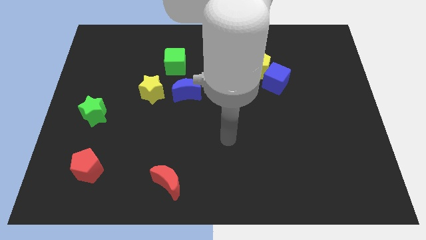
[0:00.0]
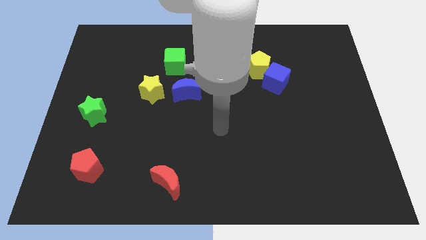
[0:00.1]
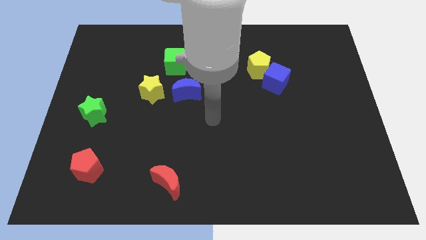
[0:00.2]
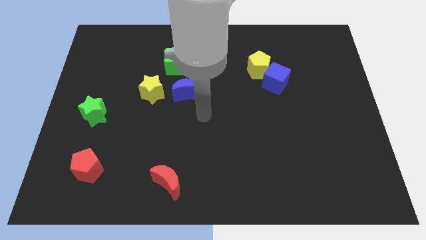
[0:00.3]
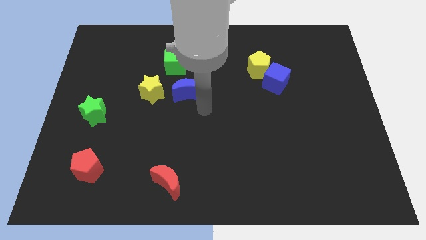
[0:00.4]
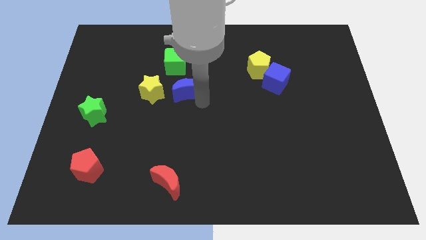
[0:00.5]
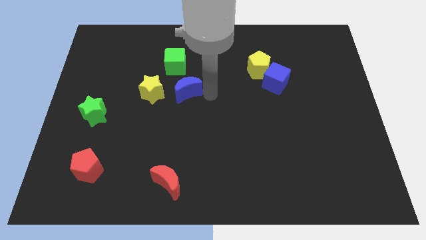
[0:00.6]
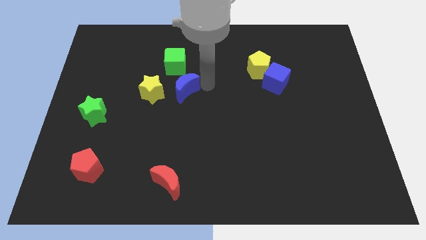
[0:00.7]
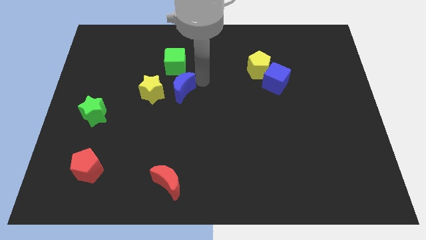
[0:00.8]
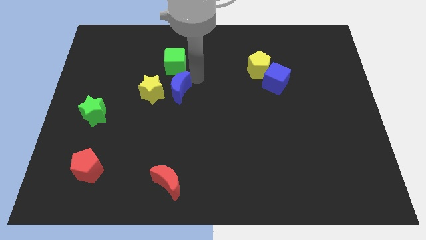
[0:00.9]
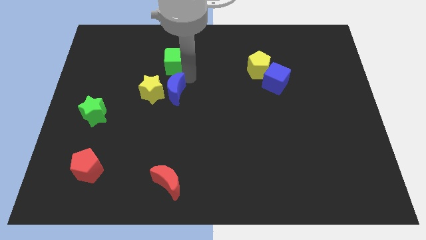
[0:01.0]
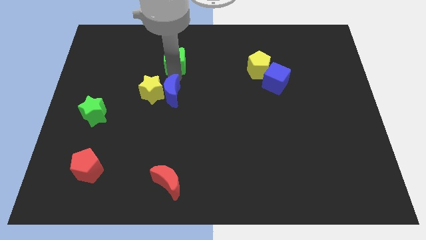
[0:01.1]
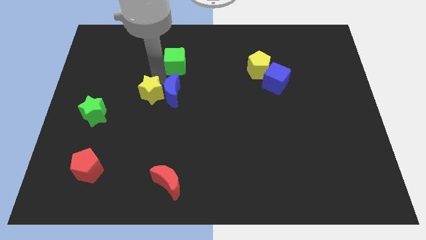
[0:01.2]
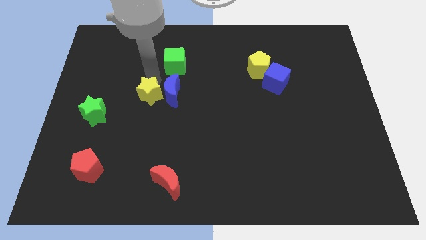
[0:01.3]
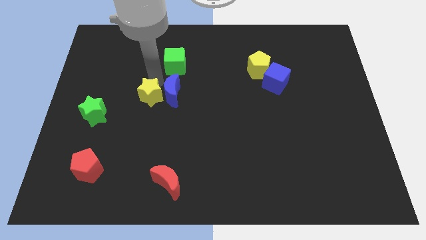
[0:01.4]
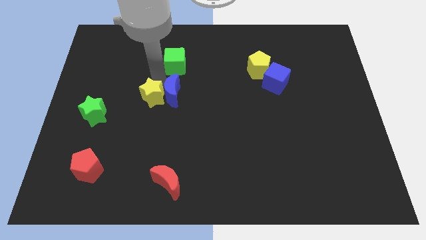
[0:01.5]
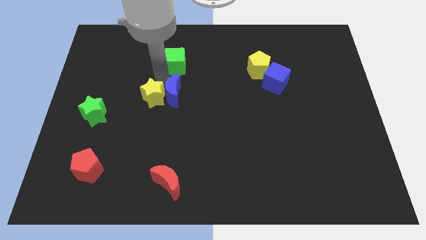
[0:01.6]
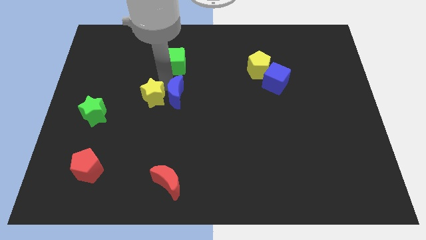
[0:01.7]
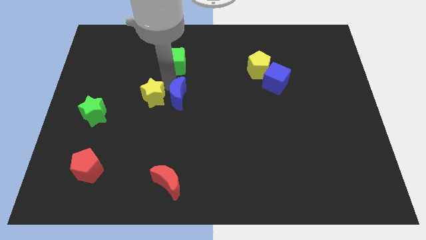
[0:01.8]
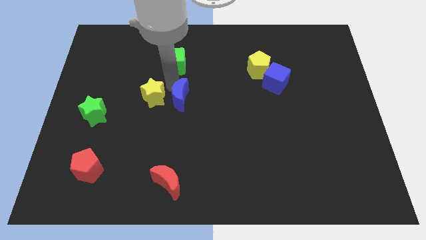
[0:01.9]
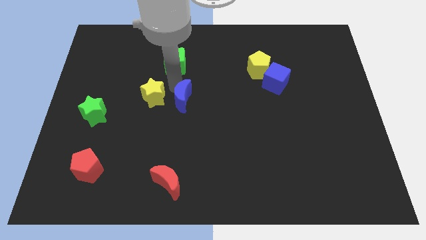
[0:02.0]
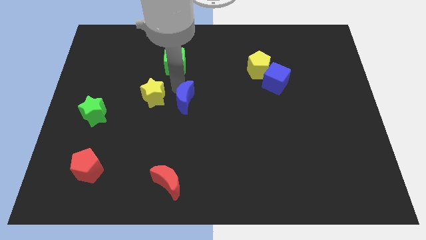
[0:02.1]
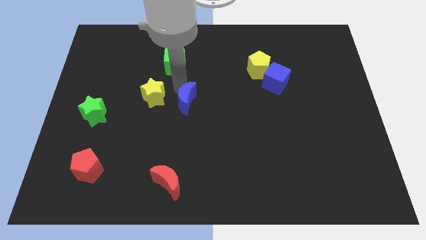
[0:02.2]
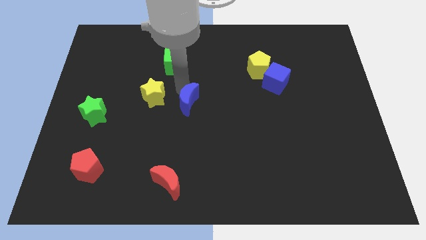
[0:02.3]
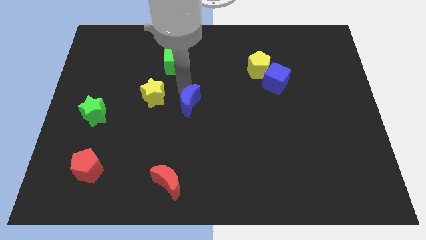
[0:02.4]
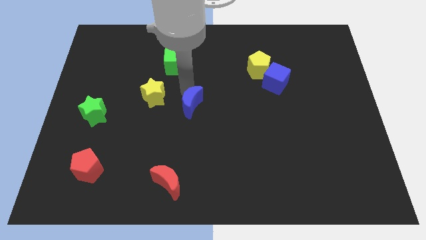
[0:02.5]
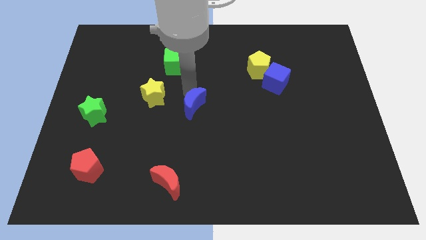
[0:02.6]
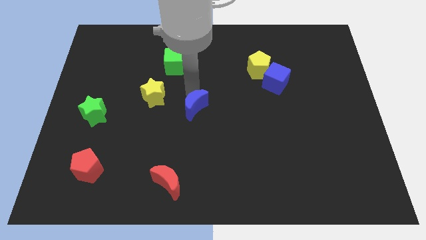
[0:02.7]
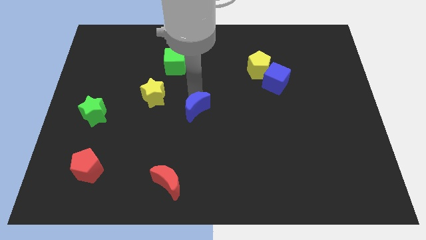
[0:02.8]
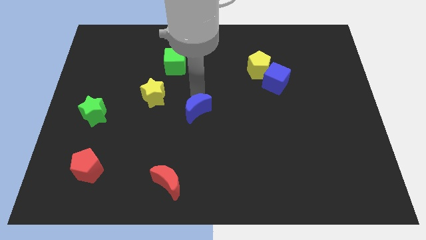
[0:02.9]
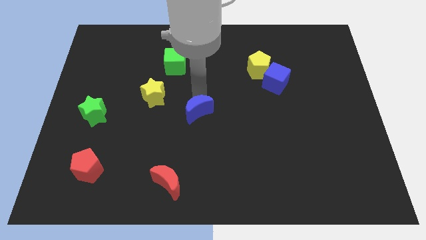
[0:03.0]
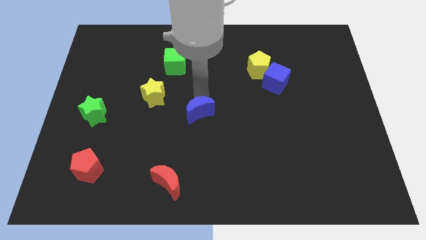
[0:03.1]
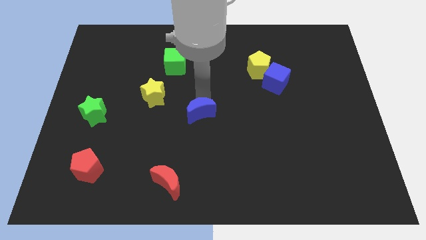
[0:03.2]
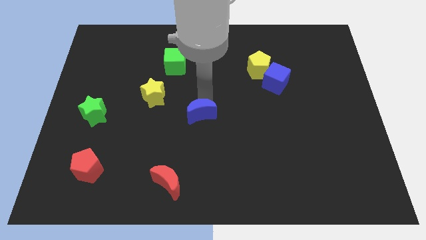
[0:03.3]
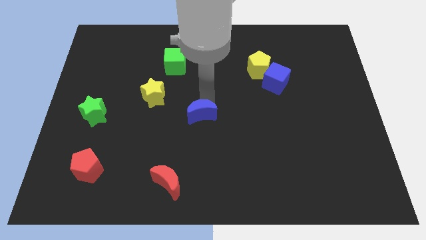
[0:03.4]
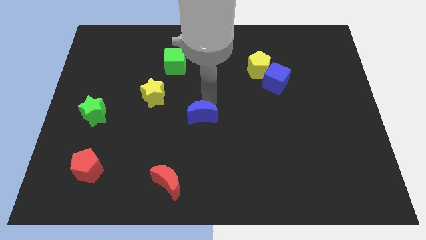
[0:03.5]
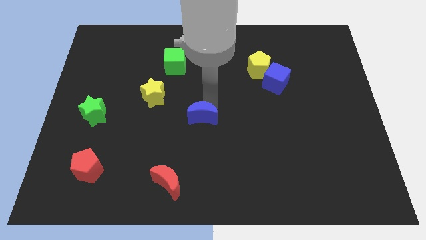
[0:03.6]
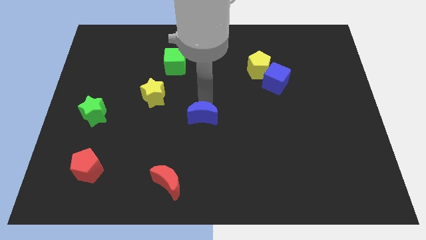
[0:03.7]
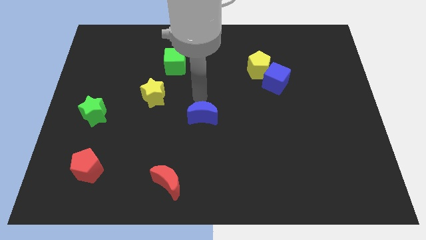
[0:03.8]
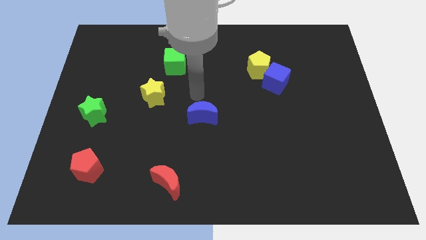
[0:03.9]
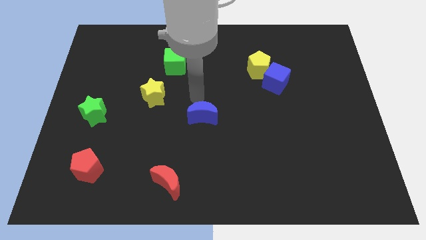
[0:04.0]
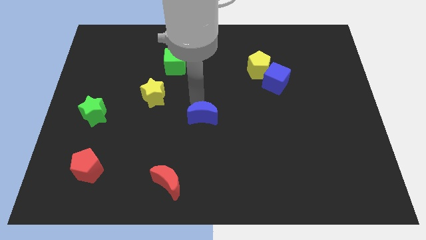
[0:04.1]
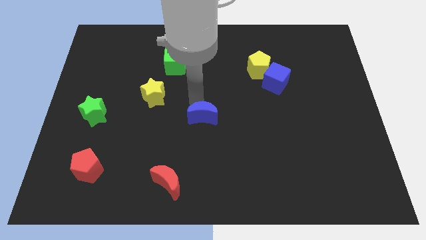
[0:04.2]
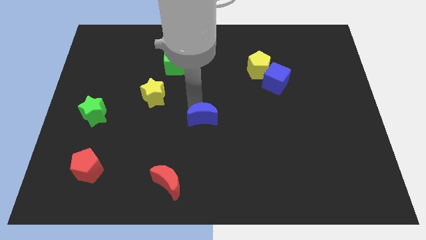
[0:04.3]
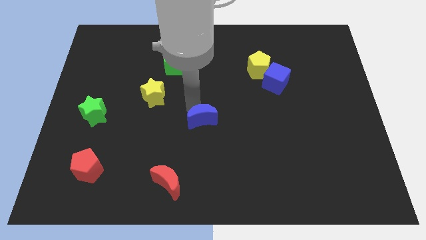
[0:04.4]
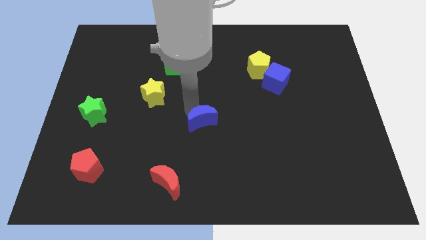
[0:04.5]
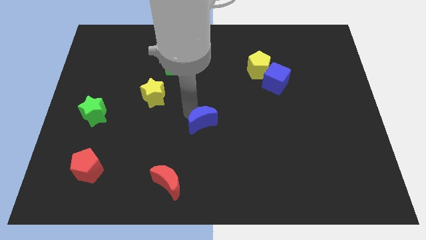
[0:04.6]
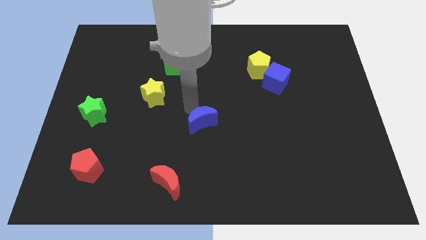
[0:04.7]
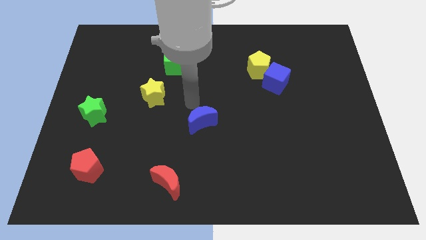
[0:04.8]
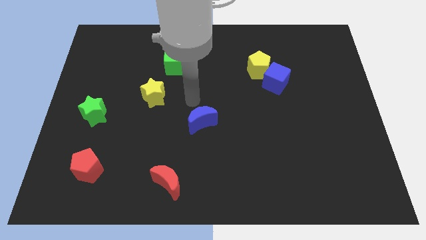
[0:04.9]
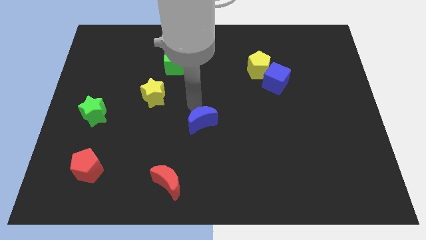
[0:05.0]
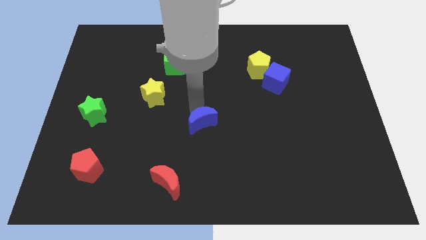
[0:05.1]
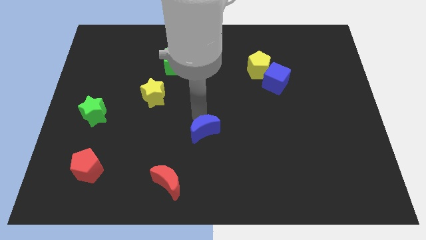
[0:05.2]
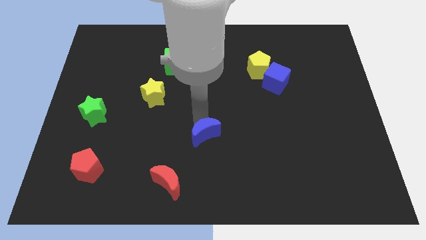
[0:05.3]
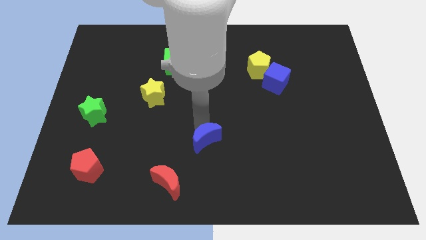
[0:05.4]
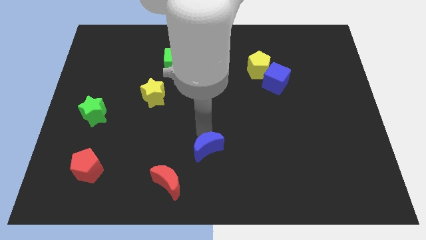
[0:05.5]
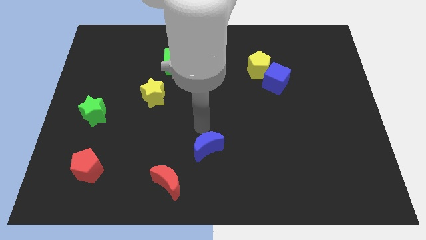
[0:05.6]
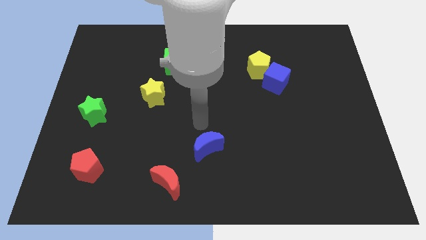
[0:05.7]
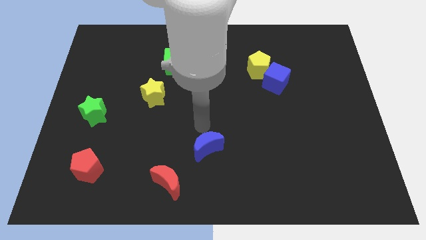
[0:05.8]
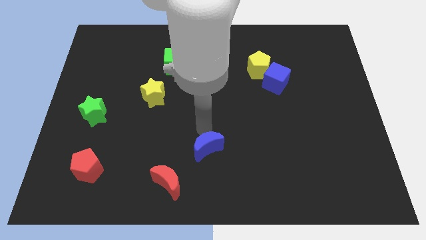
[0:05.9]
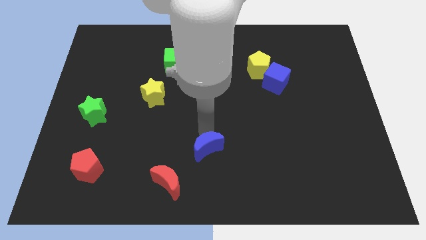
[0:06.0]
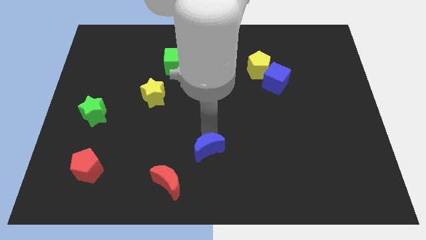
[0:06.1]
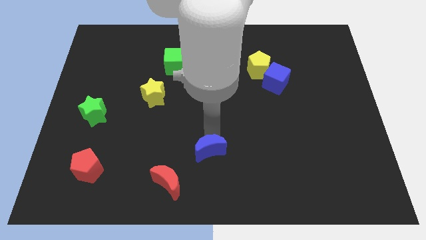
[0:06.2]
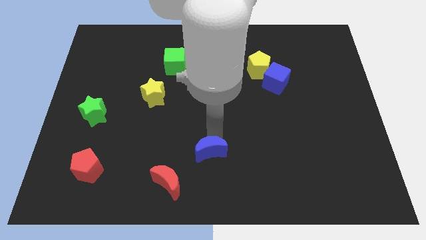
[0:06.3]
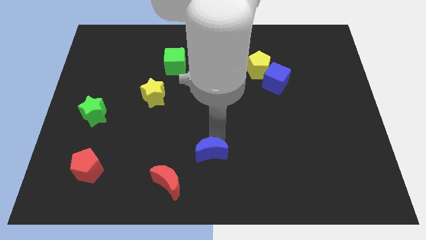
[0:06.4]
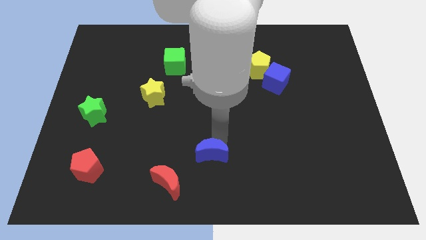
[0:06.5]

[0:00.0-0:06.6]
push the blue moon to the bottom side

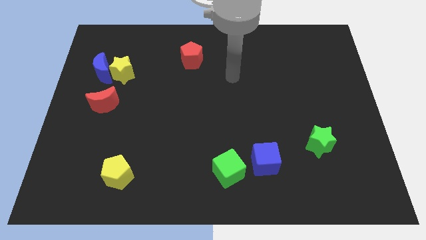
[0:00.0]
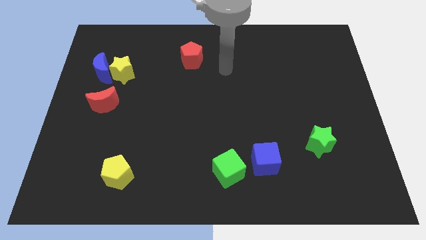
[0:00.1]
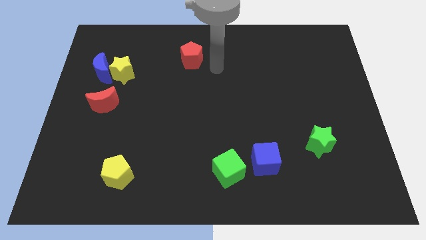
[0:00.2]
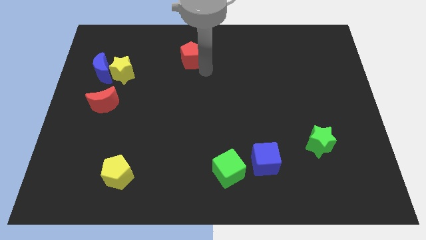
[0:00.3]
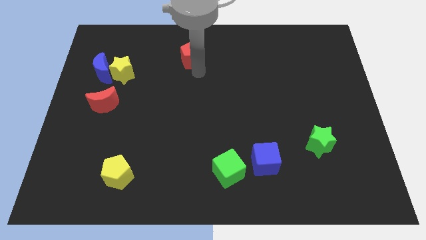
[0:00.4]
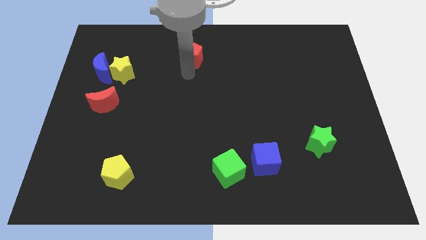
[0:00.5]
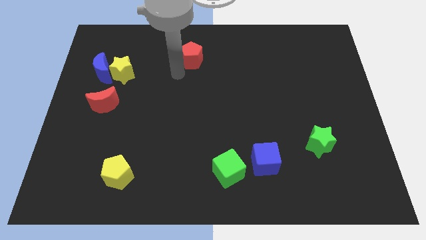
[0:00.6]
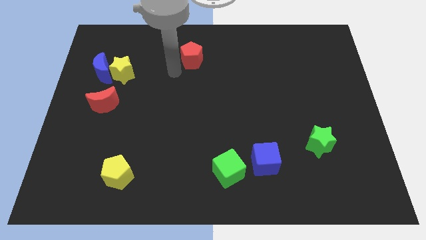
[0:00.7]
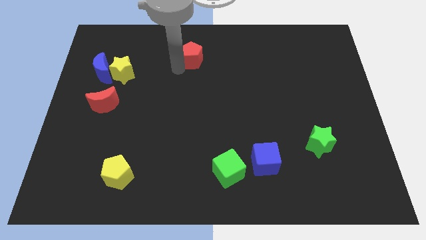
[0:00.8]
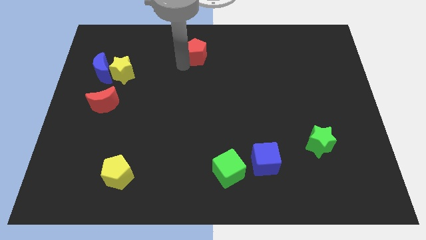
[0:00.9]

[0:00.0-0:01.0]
push the red pentagon to the top side
